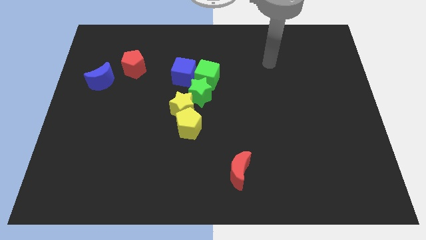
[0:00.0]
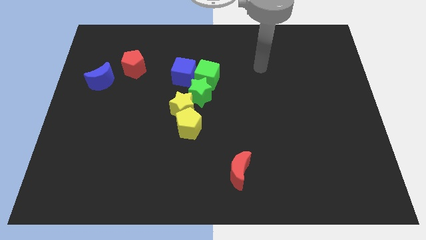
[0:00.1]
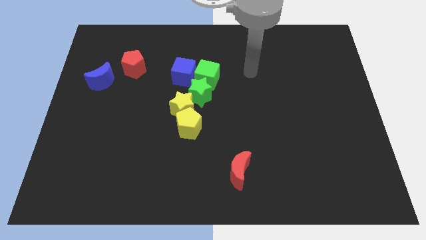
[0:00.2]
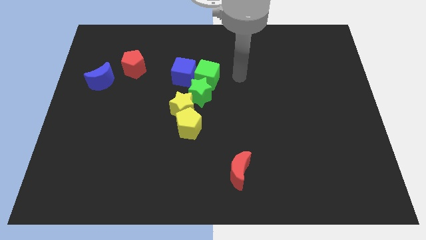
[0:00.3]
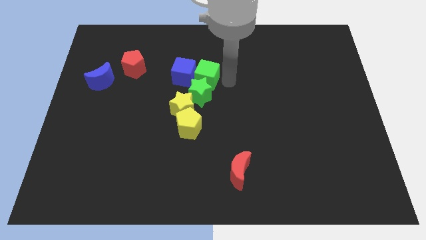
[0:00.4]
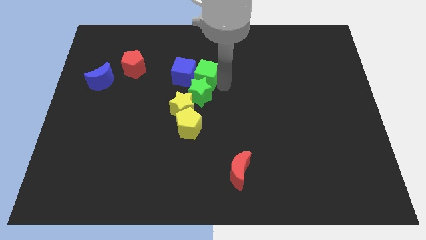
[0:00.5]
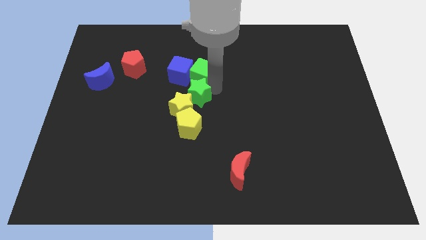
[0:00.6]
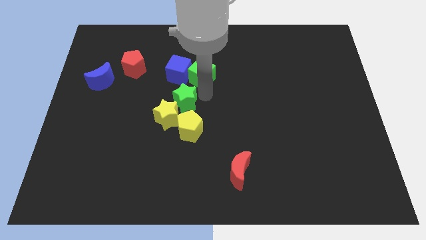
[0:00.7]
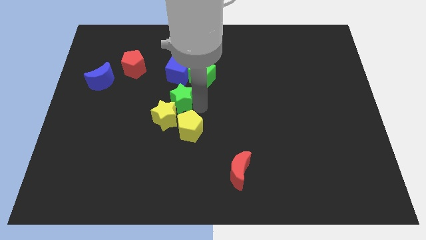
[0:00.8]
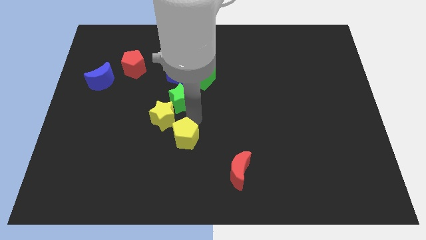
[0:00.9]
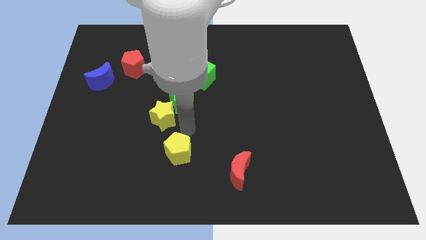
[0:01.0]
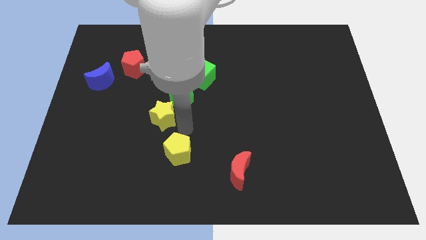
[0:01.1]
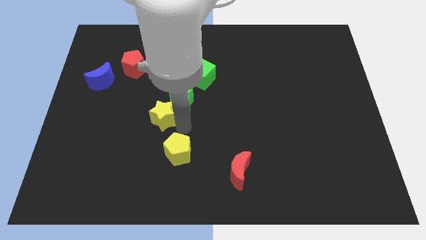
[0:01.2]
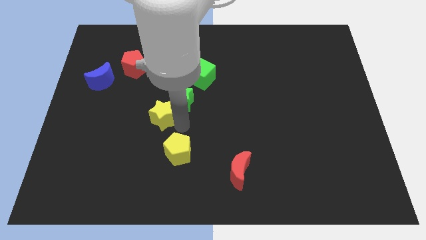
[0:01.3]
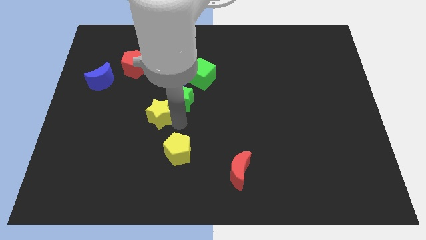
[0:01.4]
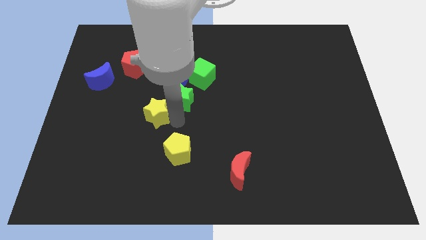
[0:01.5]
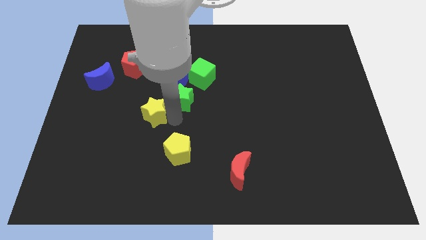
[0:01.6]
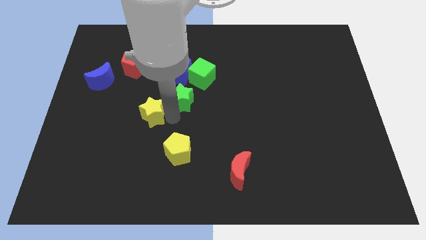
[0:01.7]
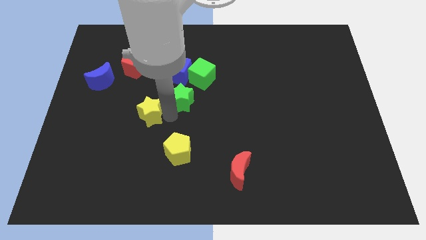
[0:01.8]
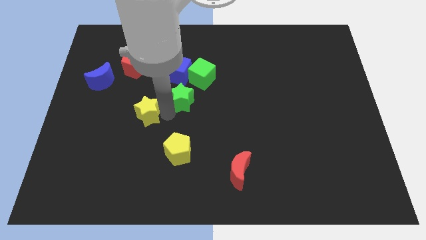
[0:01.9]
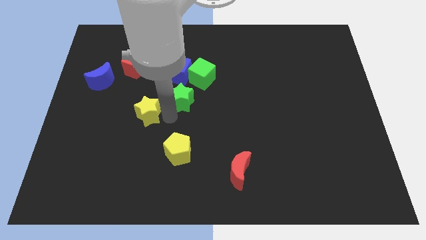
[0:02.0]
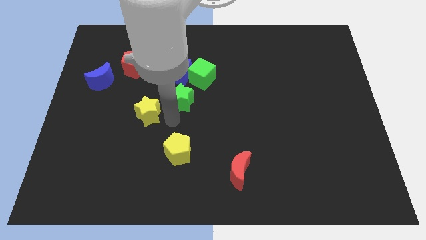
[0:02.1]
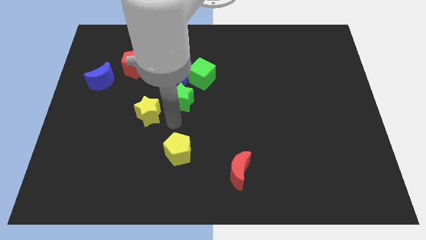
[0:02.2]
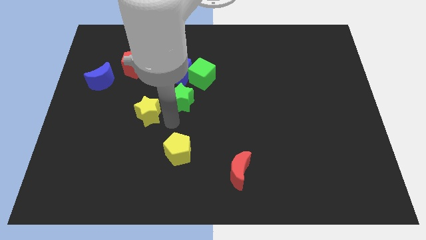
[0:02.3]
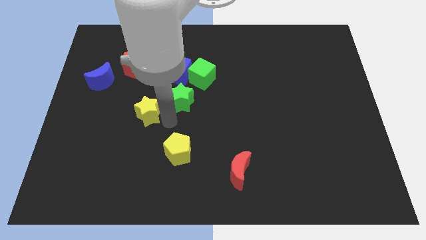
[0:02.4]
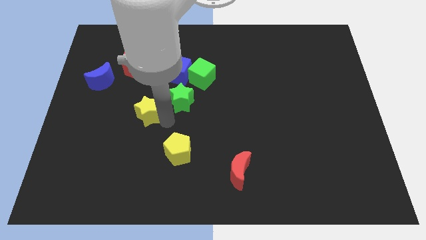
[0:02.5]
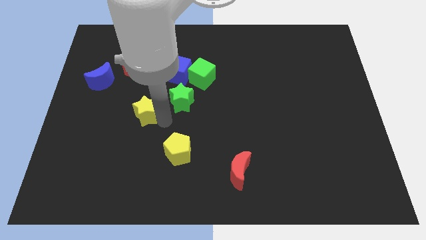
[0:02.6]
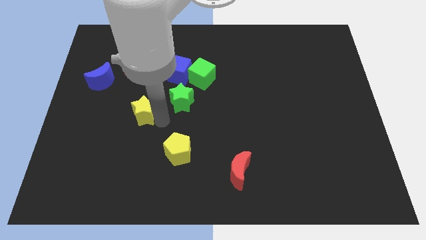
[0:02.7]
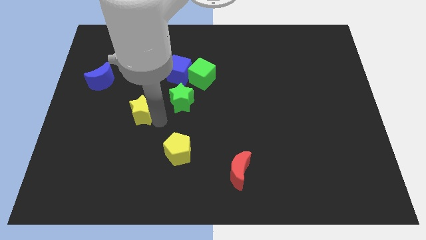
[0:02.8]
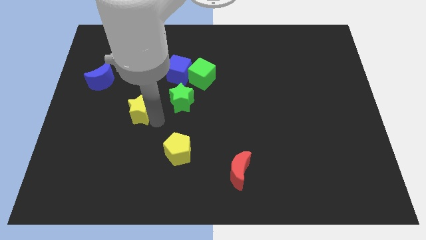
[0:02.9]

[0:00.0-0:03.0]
pull the yellow star apart from the yellow pentagon and green star

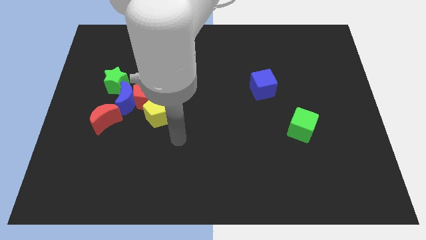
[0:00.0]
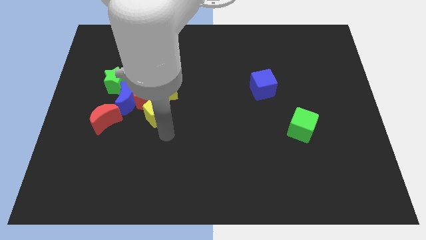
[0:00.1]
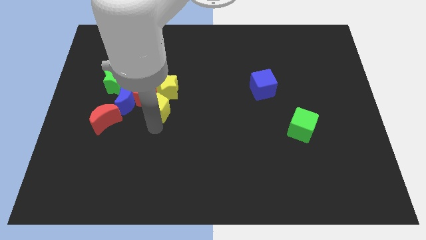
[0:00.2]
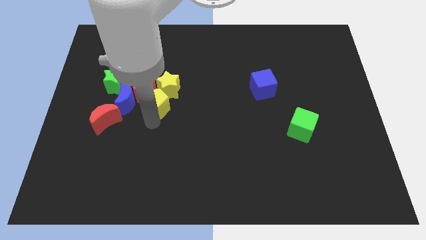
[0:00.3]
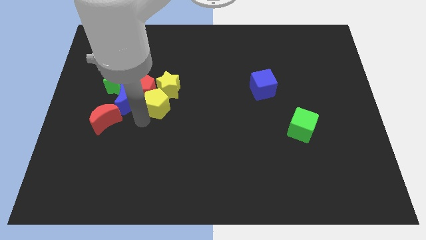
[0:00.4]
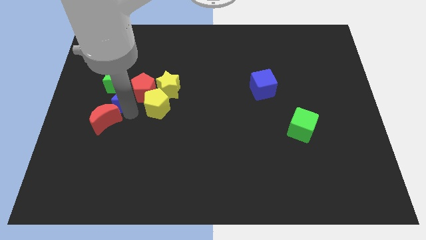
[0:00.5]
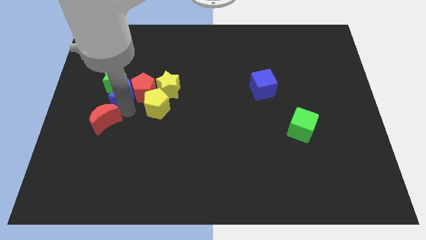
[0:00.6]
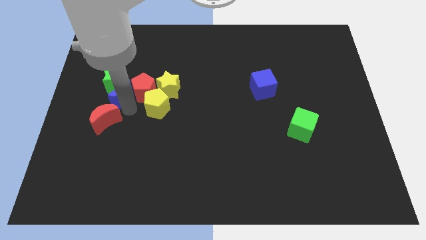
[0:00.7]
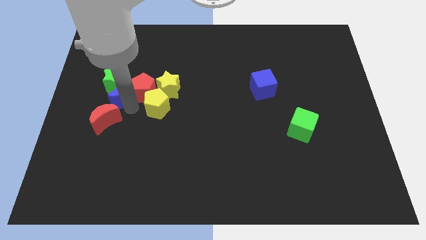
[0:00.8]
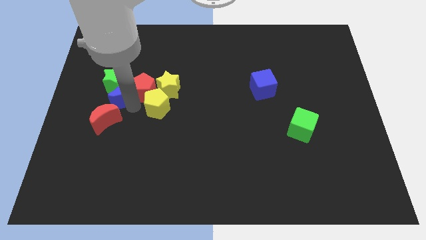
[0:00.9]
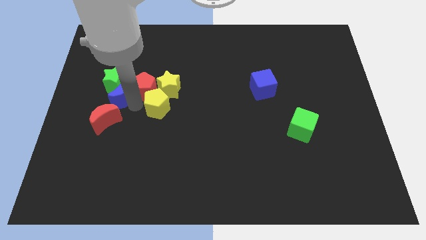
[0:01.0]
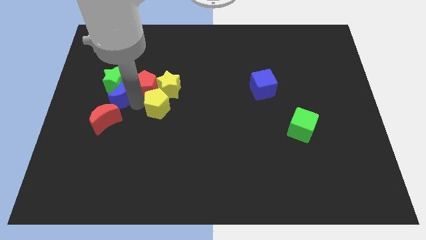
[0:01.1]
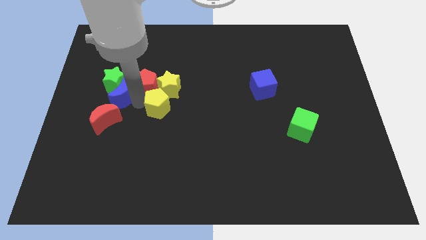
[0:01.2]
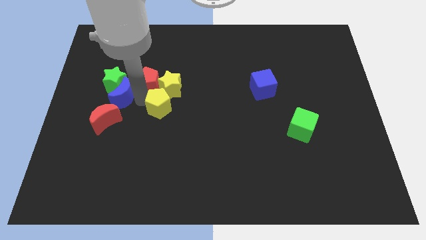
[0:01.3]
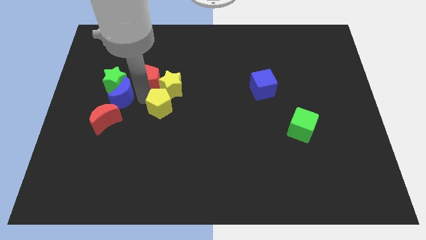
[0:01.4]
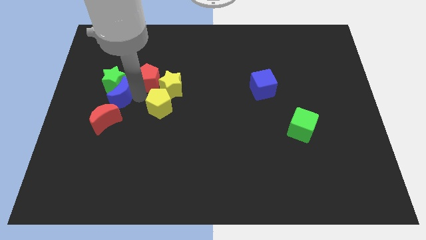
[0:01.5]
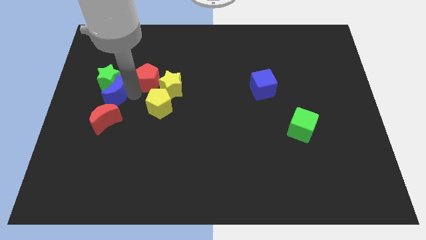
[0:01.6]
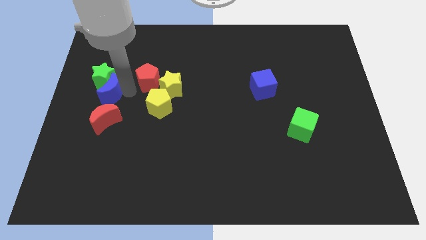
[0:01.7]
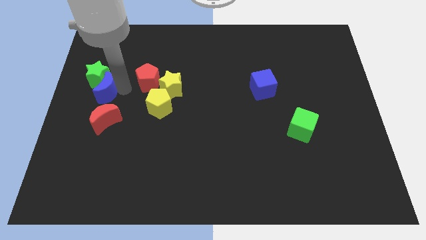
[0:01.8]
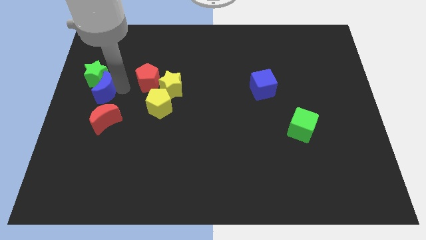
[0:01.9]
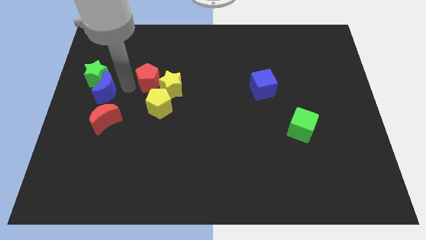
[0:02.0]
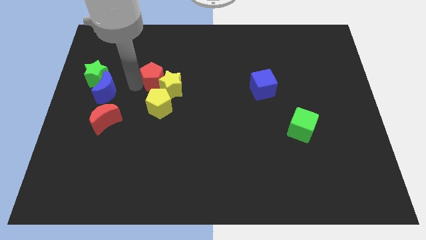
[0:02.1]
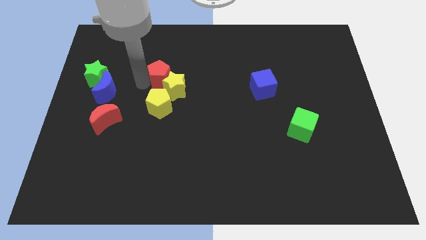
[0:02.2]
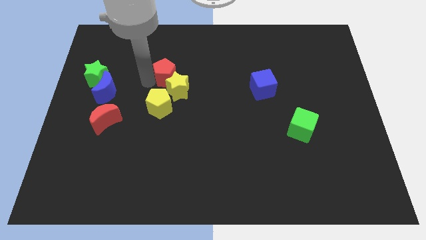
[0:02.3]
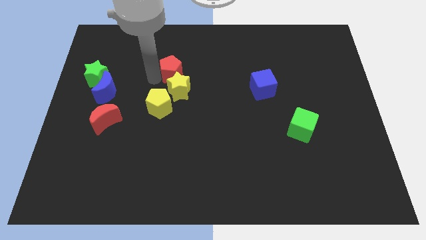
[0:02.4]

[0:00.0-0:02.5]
pull the red pentagon apart from the clump

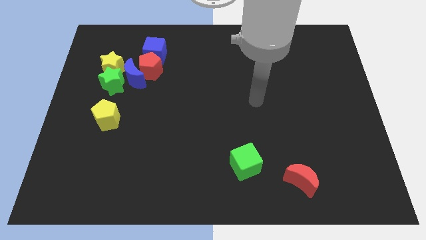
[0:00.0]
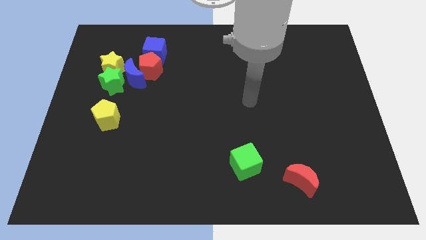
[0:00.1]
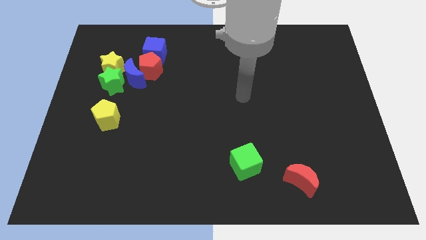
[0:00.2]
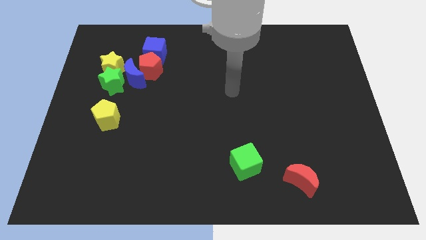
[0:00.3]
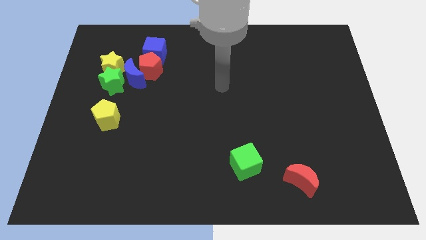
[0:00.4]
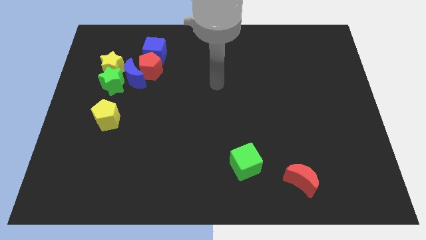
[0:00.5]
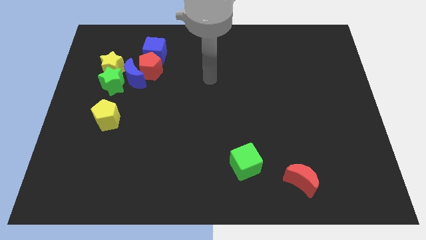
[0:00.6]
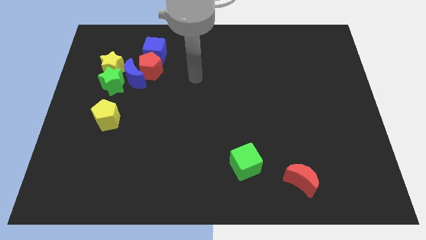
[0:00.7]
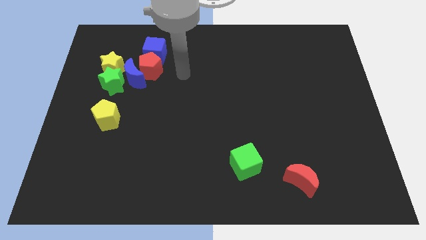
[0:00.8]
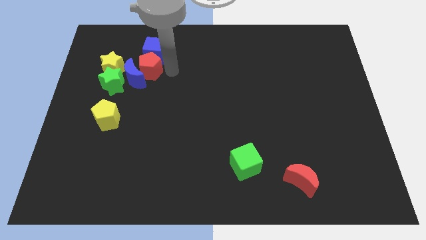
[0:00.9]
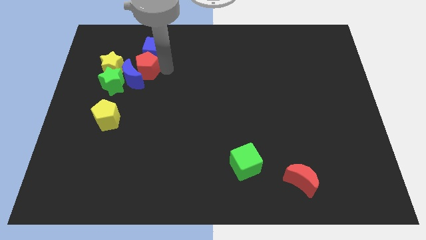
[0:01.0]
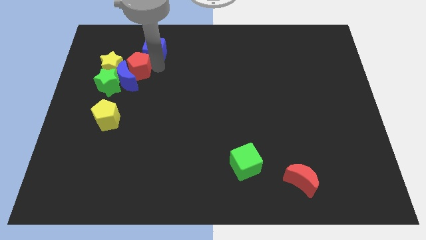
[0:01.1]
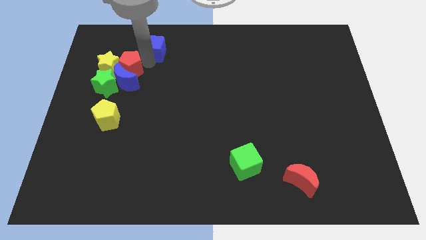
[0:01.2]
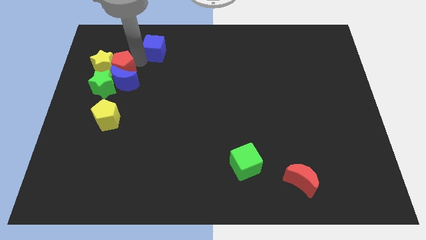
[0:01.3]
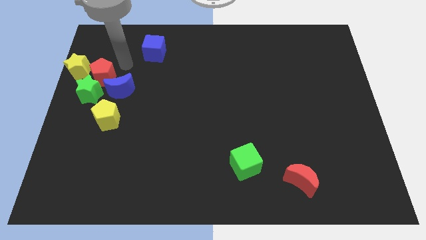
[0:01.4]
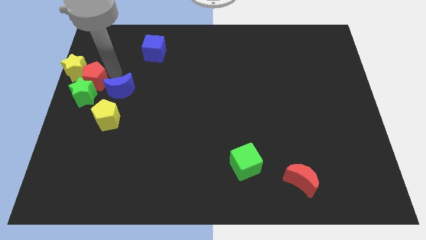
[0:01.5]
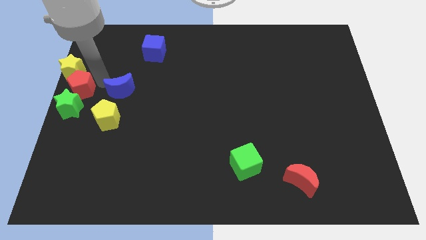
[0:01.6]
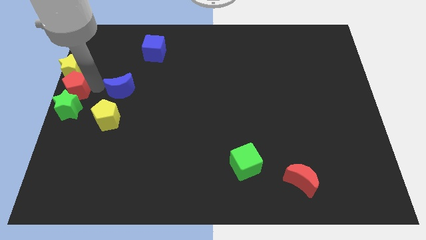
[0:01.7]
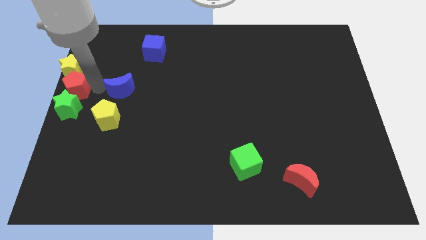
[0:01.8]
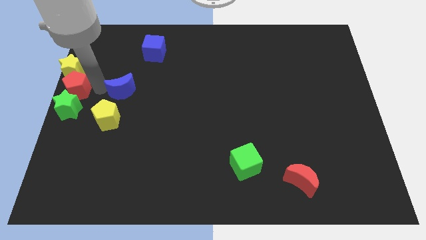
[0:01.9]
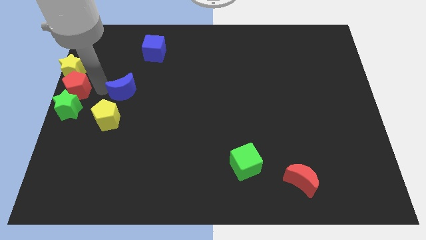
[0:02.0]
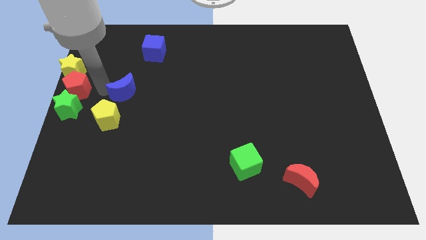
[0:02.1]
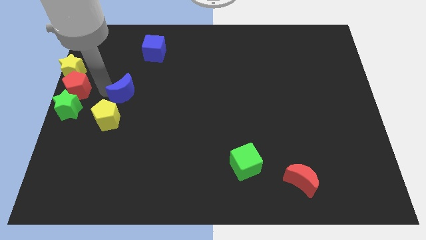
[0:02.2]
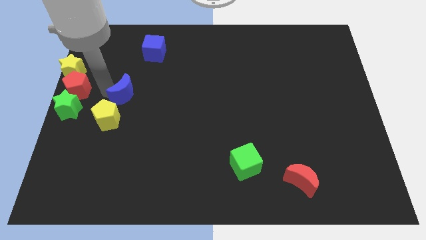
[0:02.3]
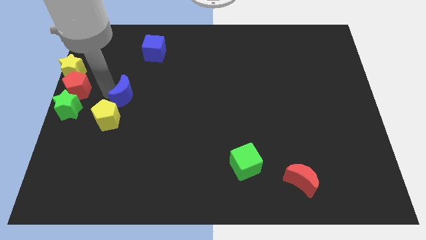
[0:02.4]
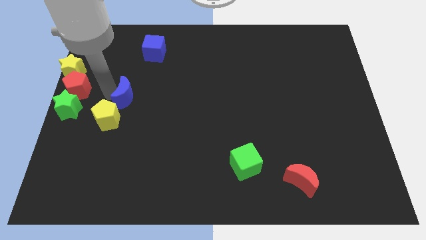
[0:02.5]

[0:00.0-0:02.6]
move the blue moon away from the group of blocks

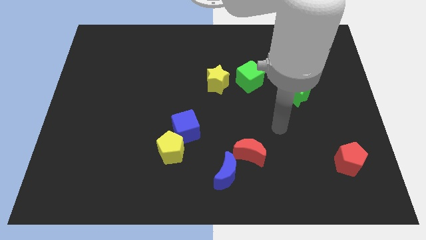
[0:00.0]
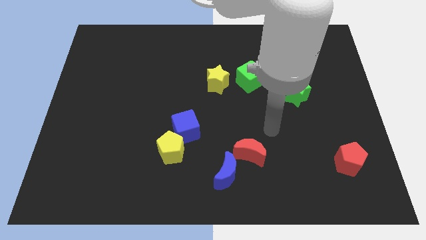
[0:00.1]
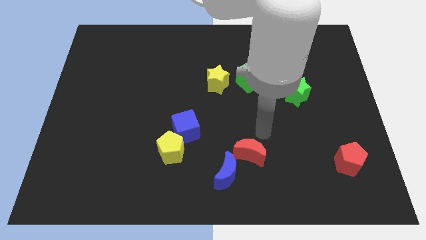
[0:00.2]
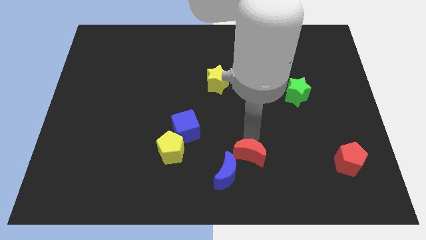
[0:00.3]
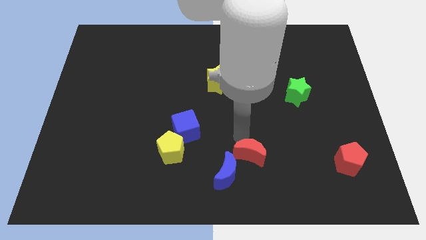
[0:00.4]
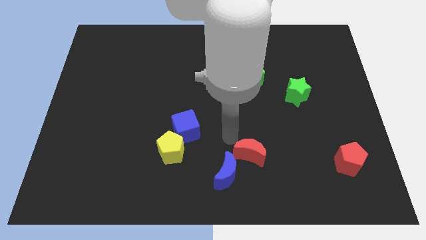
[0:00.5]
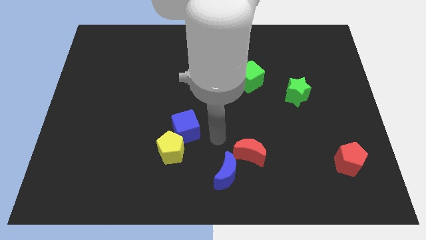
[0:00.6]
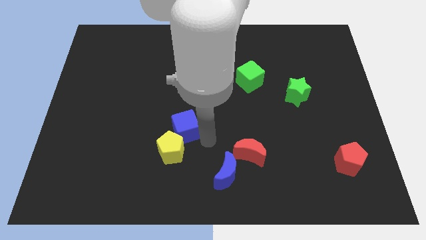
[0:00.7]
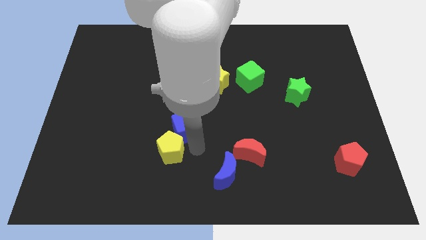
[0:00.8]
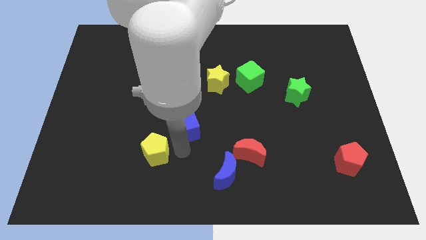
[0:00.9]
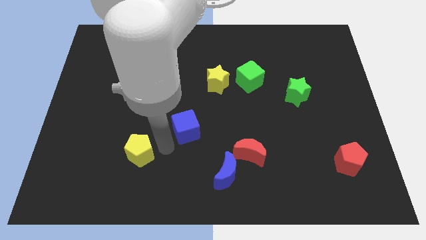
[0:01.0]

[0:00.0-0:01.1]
pull the blue cube apart from the yellow pentagon
